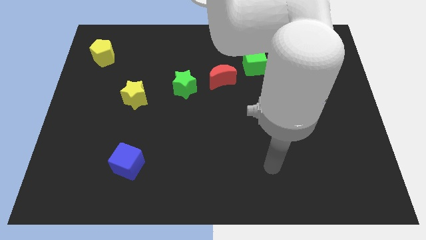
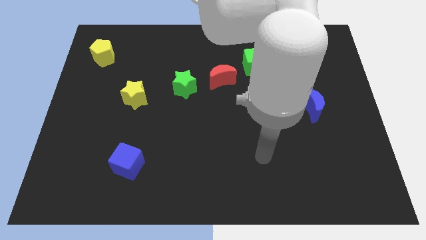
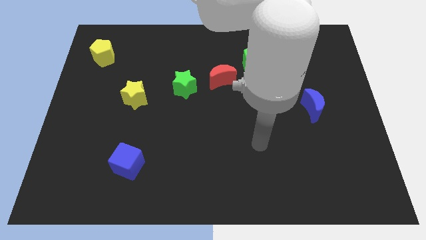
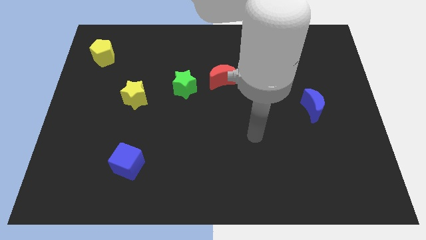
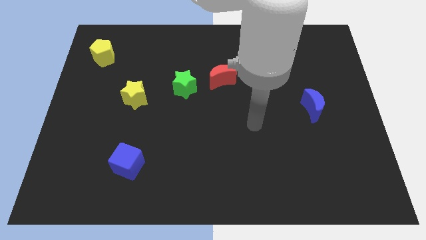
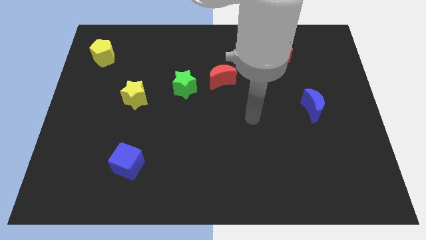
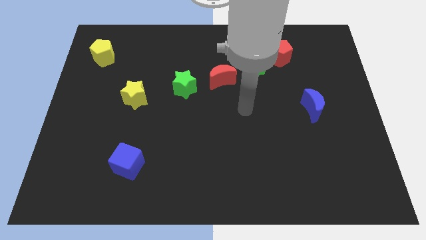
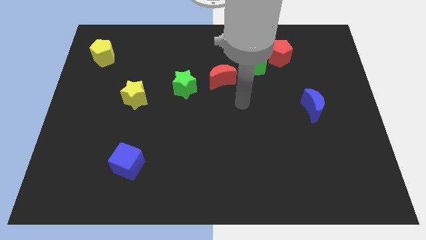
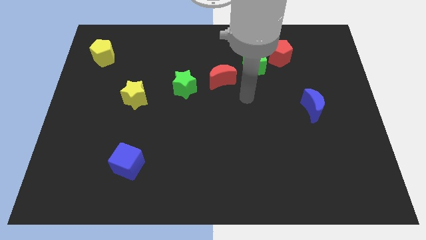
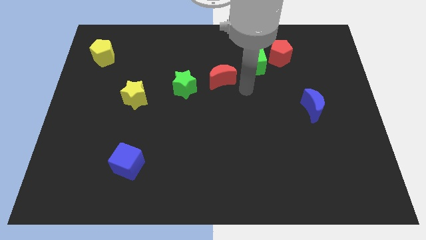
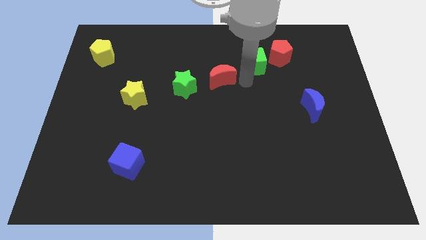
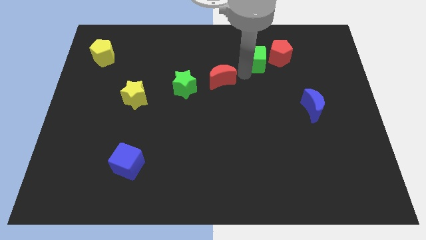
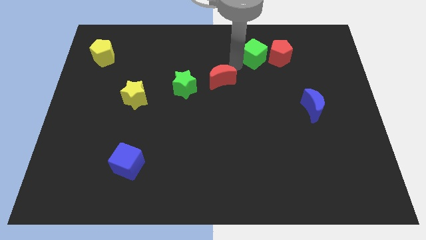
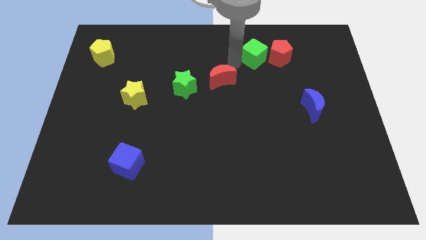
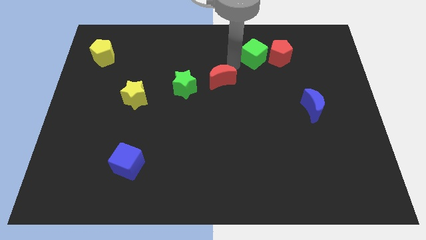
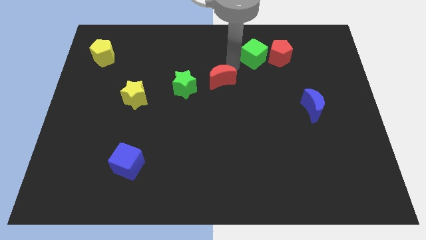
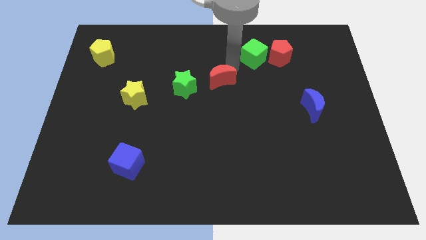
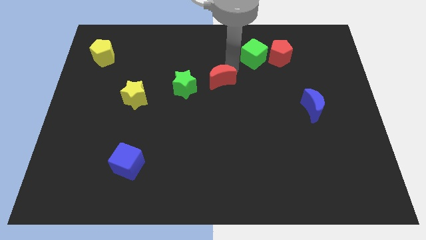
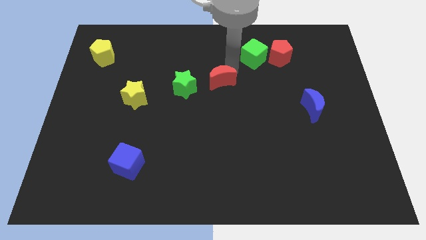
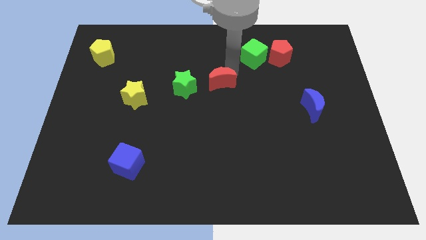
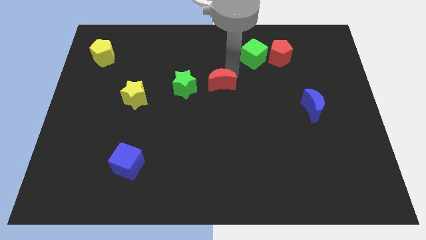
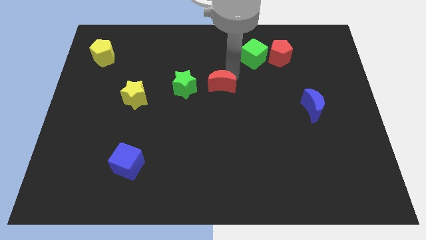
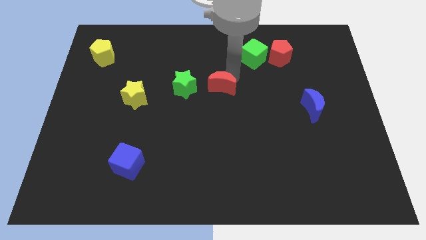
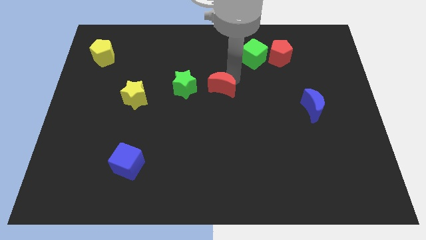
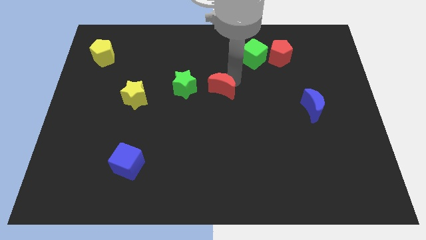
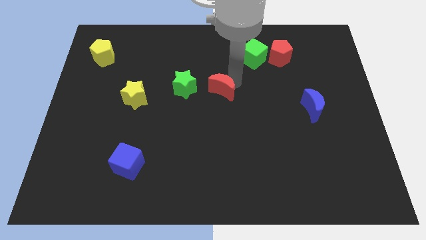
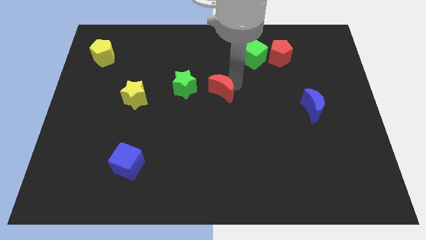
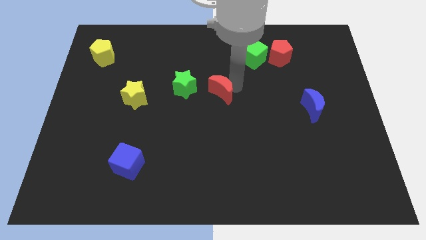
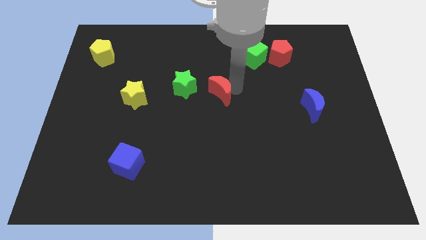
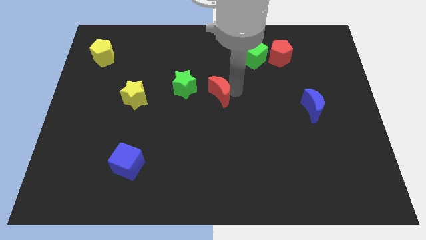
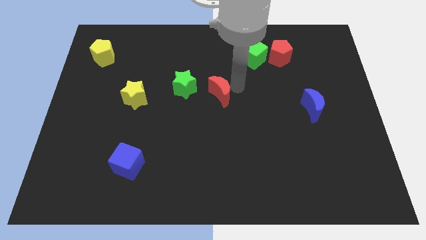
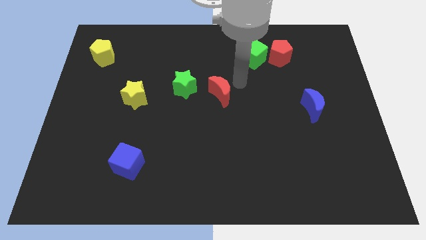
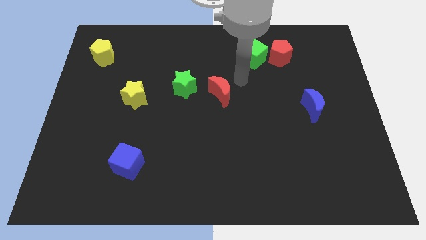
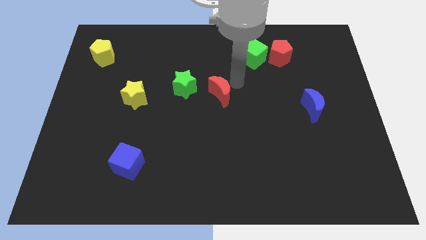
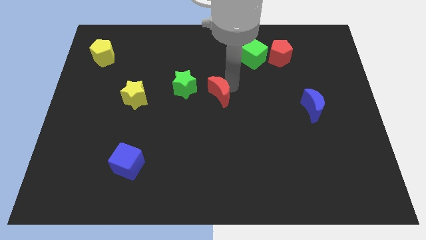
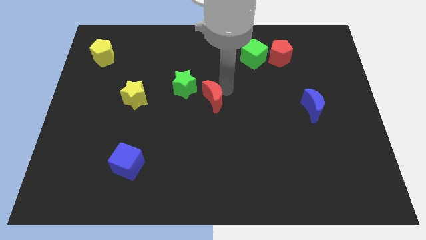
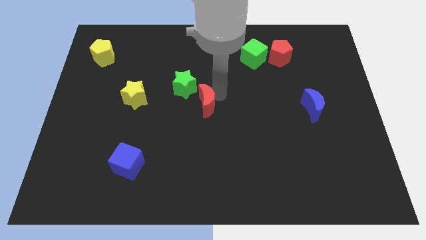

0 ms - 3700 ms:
move the red moon a bit downwards and to the left diagonally

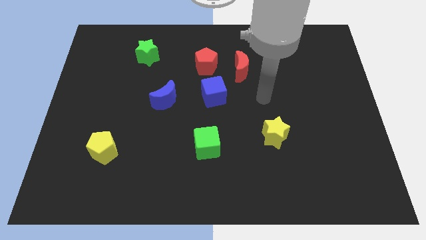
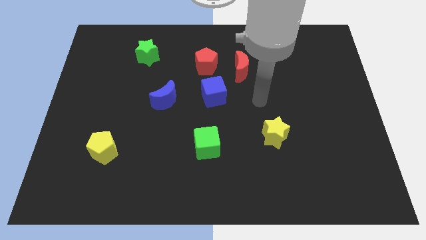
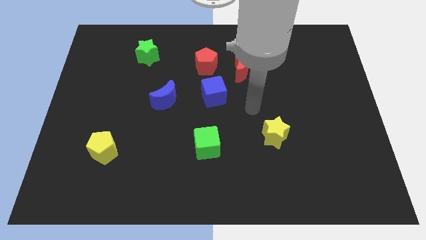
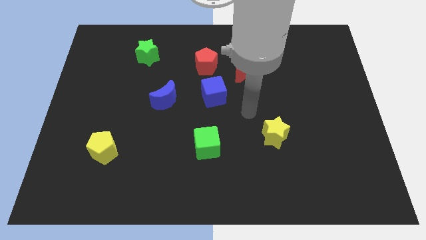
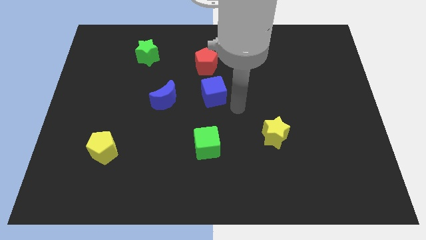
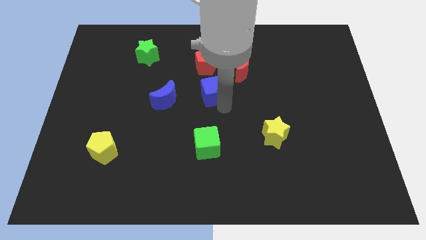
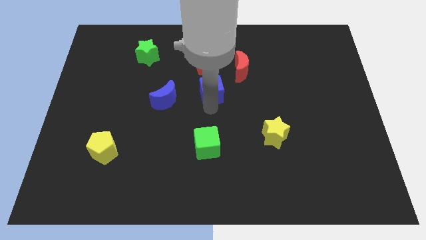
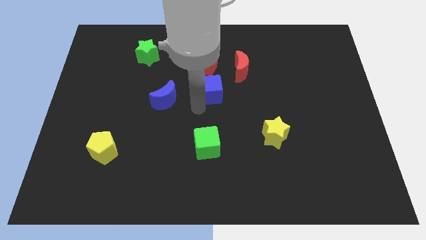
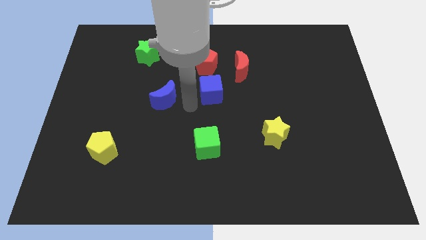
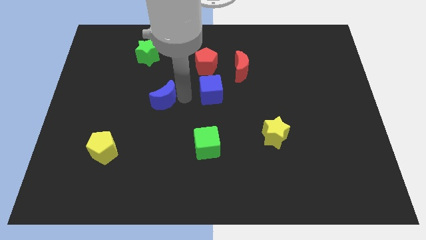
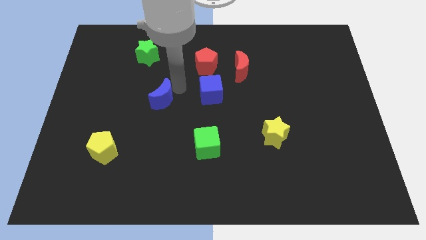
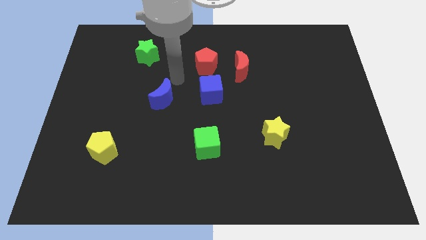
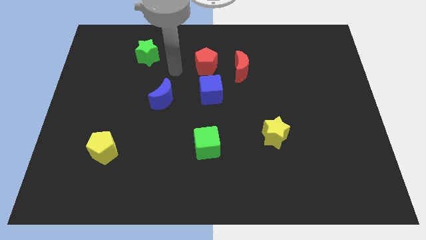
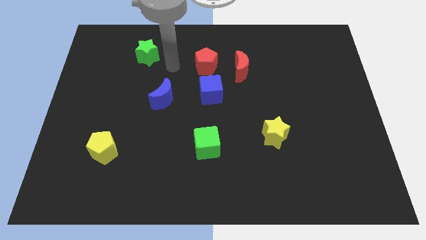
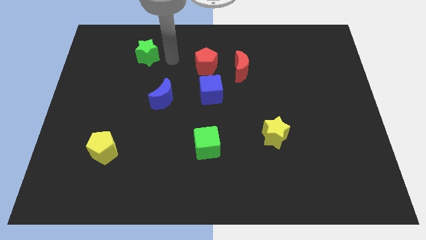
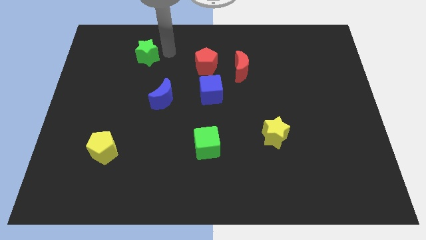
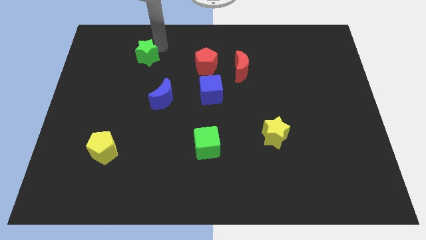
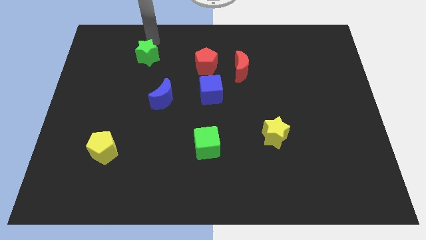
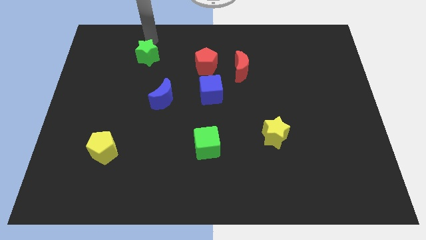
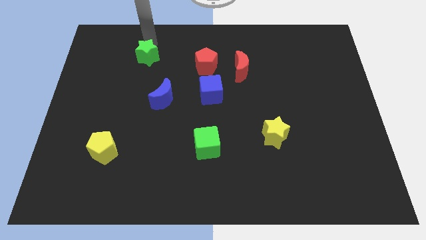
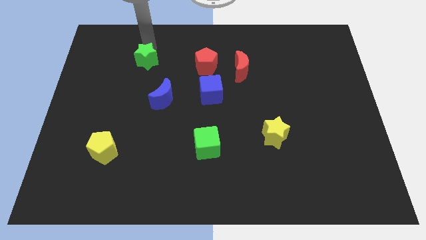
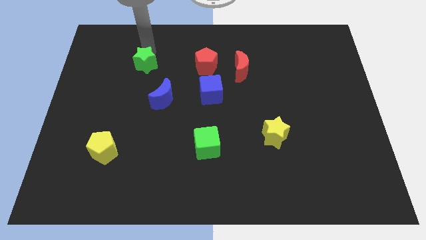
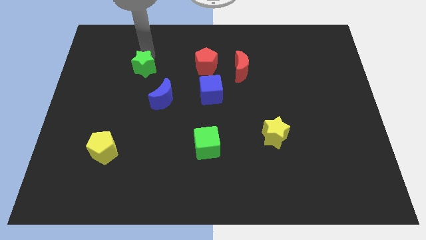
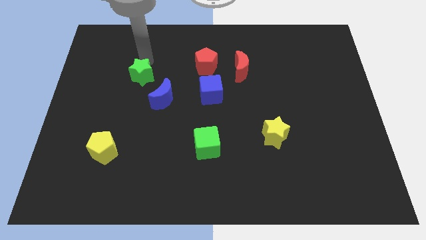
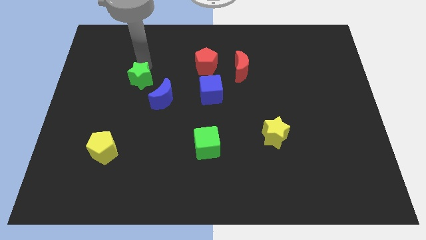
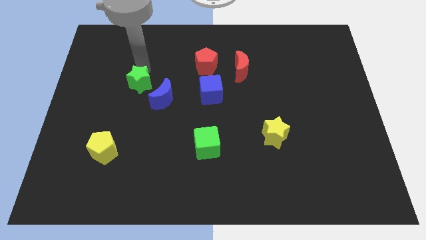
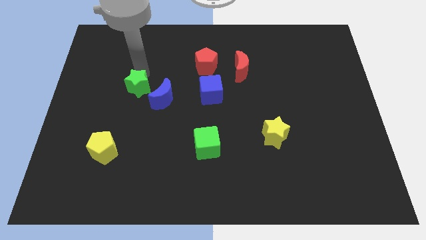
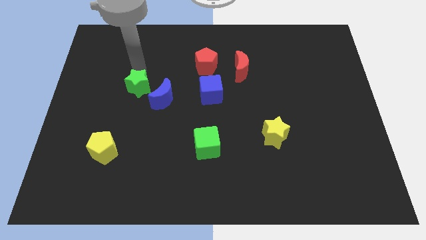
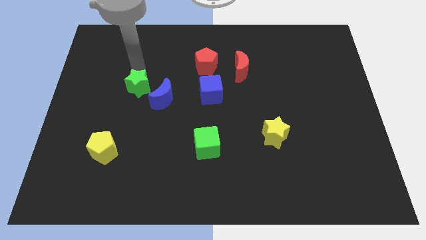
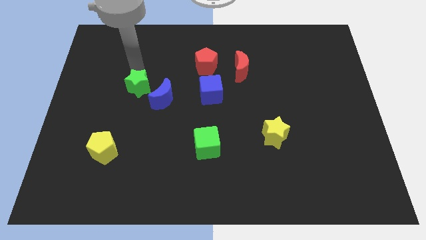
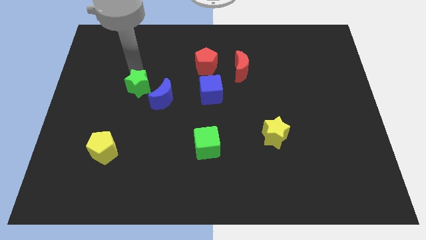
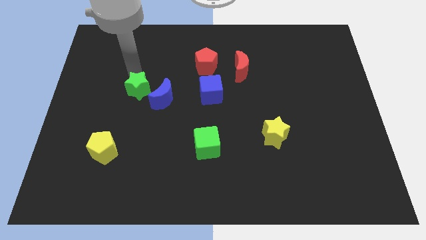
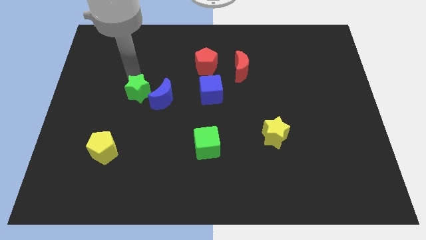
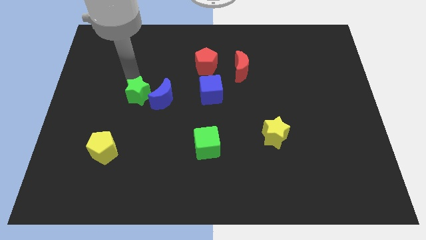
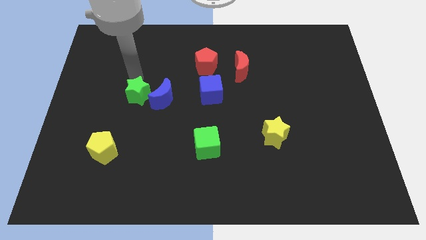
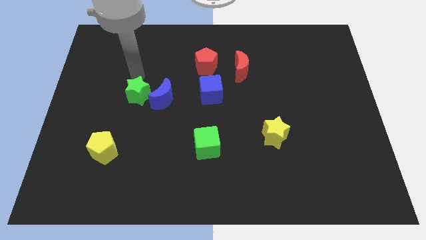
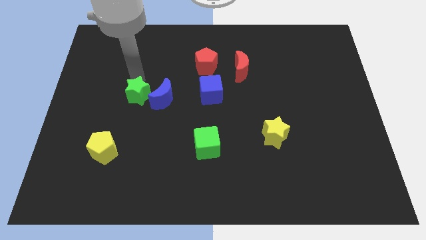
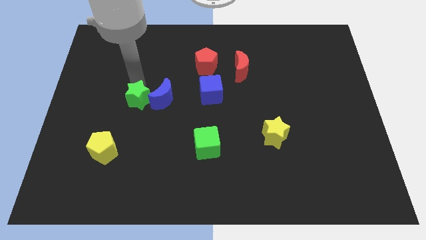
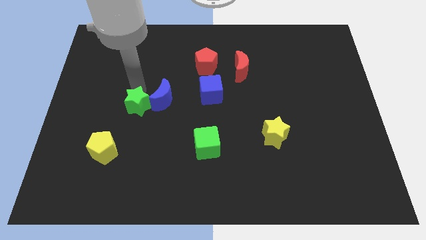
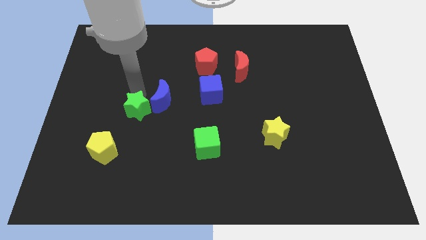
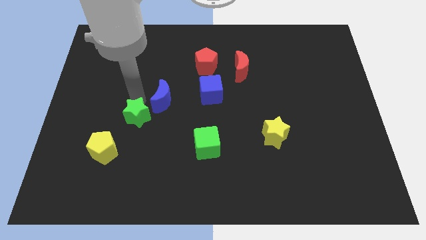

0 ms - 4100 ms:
slide the green star downwards
